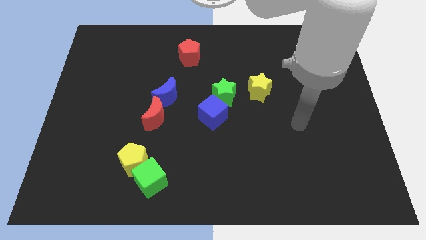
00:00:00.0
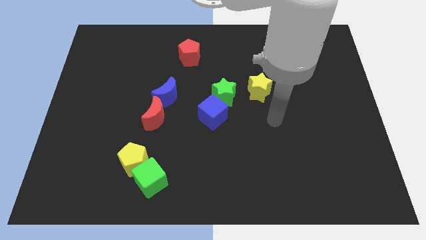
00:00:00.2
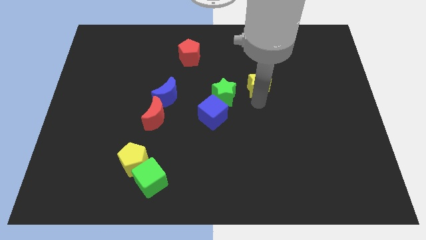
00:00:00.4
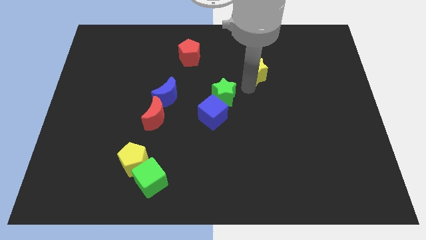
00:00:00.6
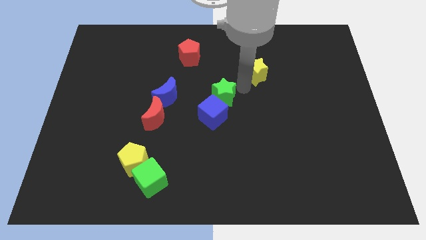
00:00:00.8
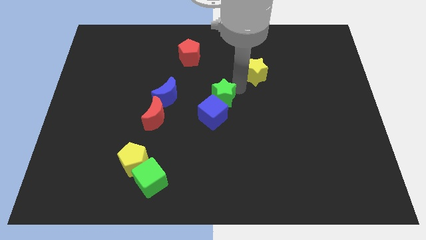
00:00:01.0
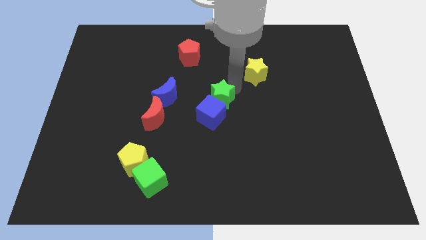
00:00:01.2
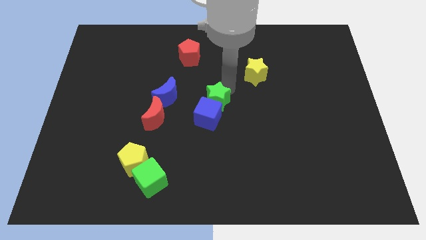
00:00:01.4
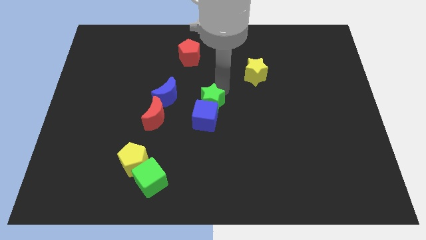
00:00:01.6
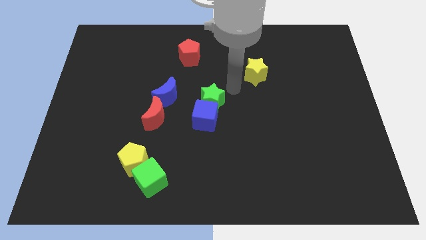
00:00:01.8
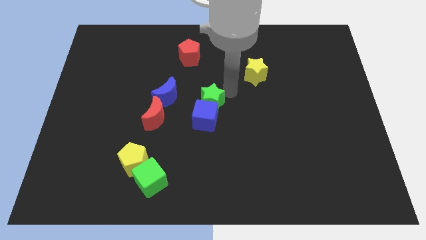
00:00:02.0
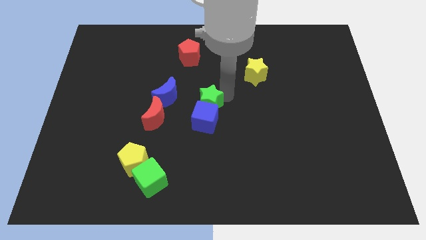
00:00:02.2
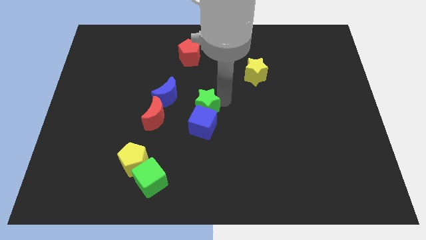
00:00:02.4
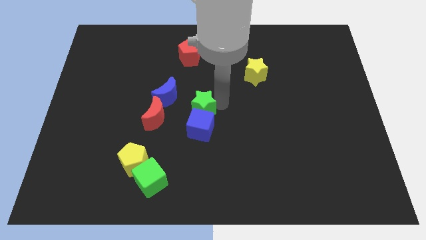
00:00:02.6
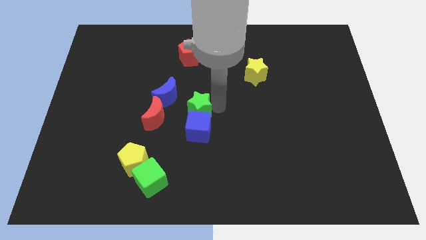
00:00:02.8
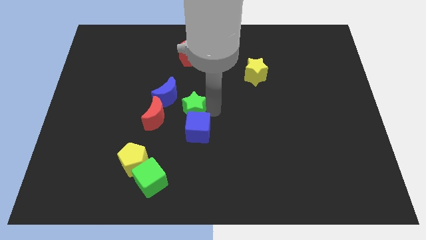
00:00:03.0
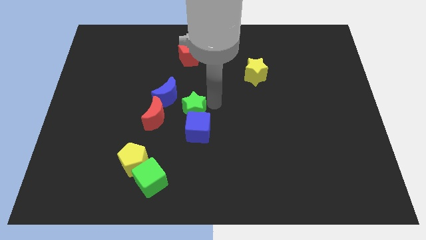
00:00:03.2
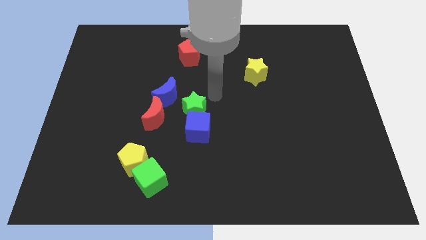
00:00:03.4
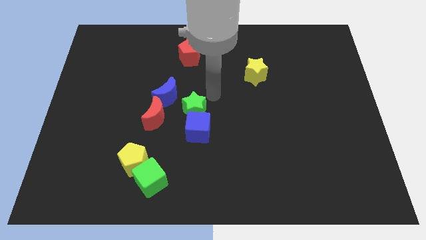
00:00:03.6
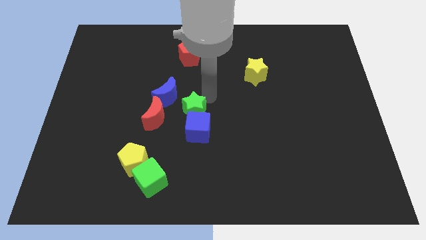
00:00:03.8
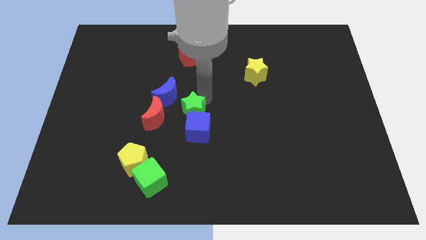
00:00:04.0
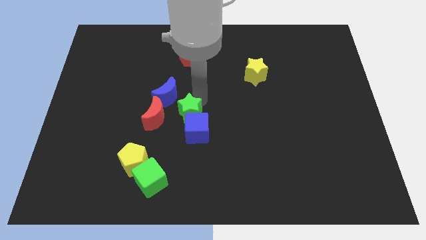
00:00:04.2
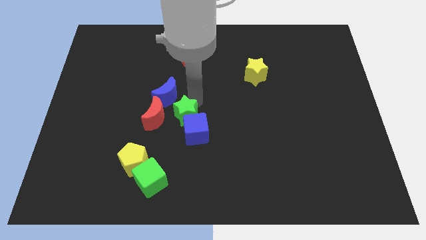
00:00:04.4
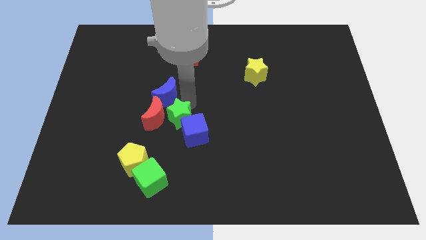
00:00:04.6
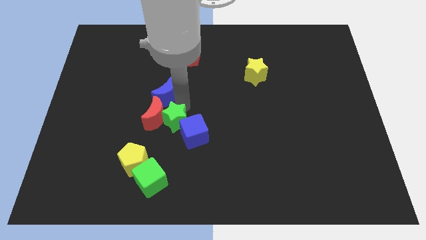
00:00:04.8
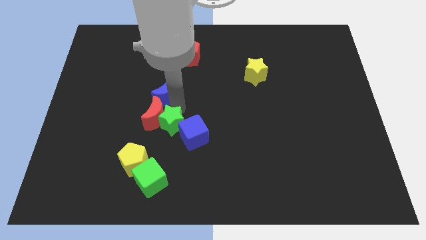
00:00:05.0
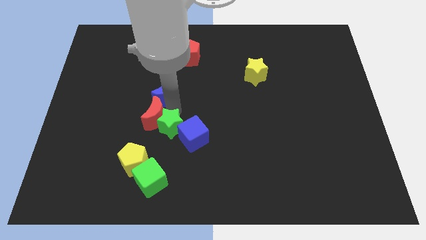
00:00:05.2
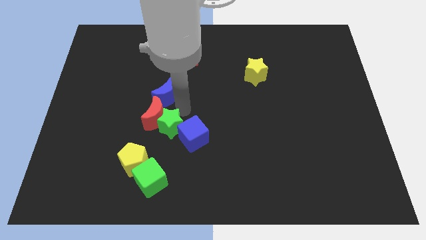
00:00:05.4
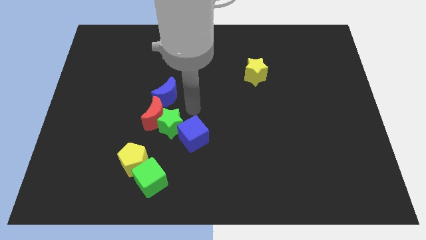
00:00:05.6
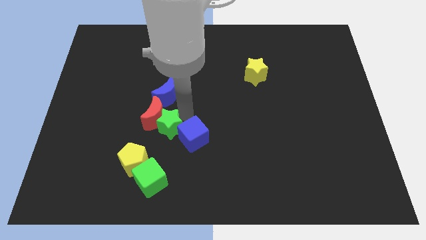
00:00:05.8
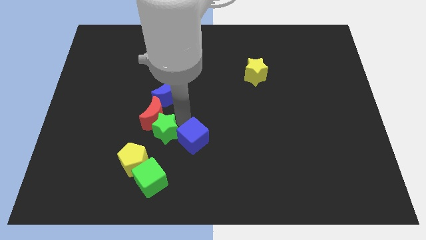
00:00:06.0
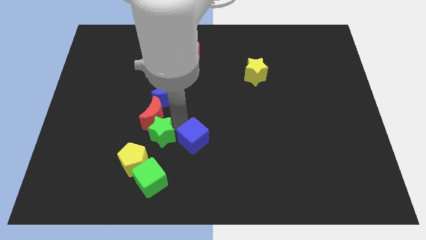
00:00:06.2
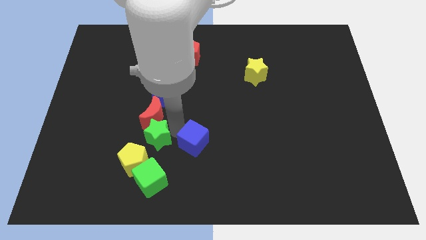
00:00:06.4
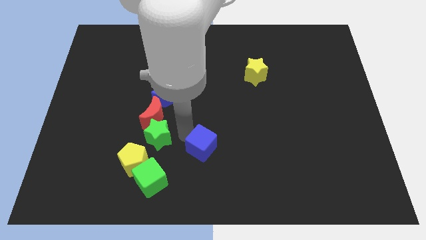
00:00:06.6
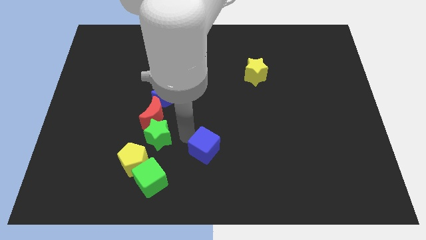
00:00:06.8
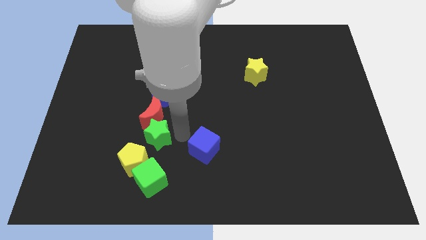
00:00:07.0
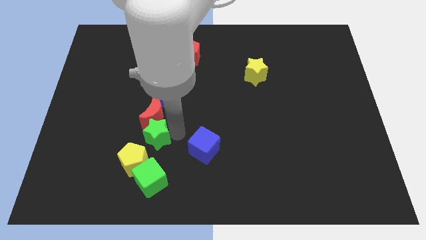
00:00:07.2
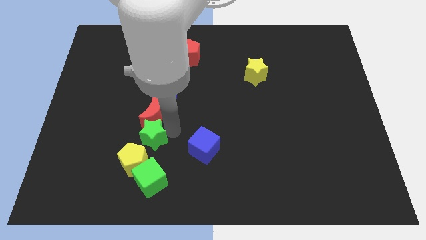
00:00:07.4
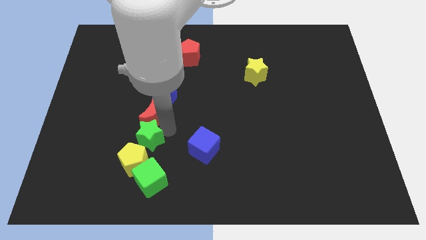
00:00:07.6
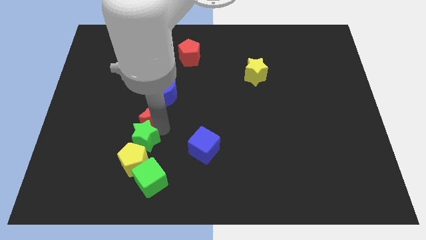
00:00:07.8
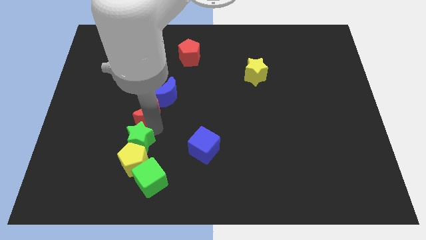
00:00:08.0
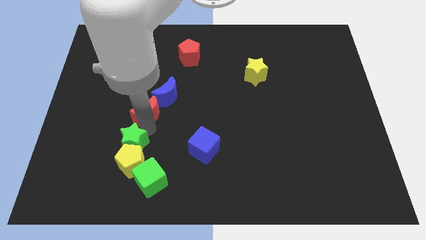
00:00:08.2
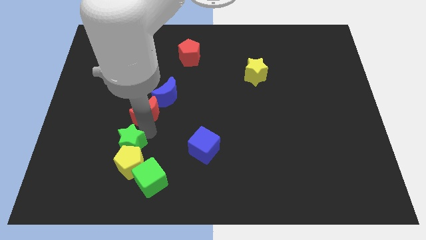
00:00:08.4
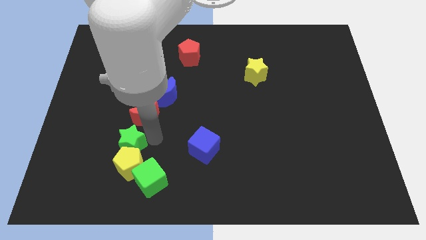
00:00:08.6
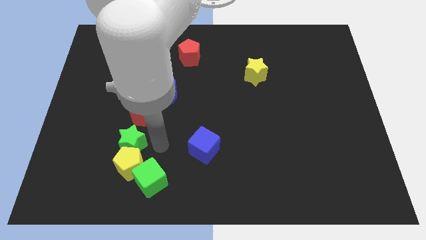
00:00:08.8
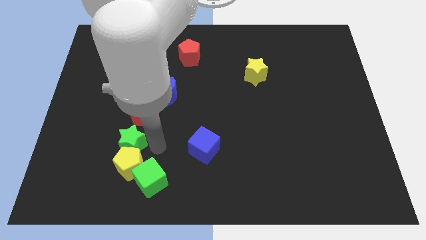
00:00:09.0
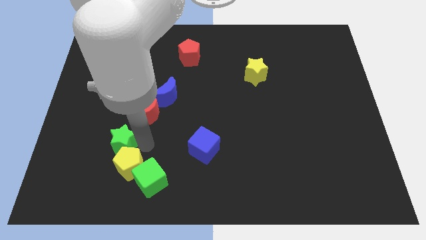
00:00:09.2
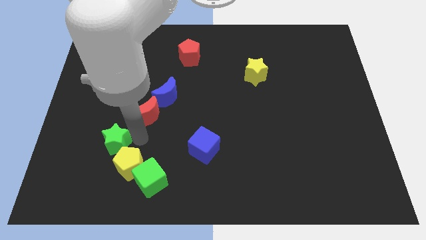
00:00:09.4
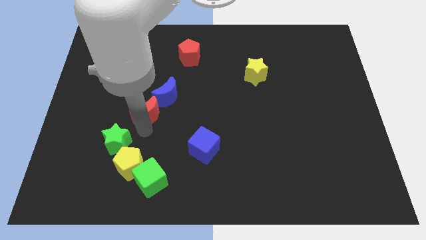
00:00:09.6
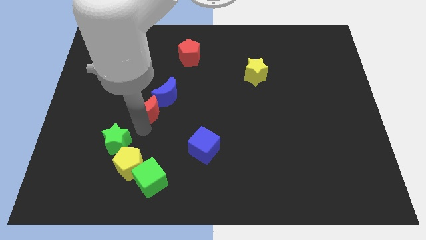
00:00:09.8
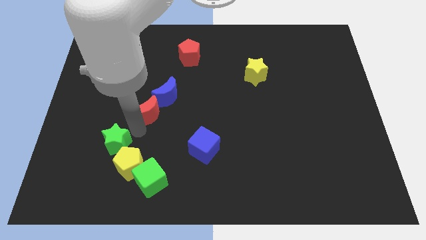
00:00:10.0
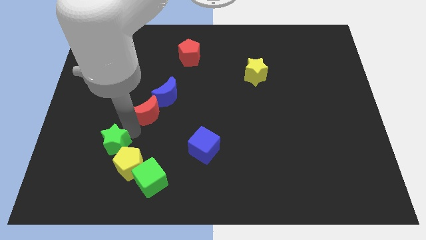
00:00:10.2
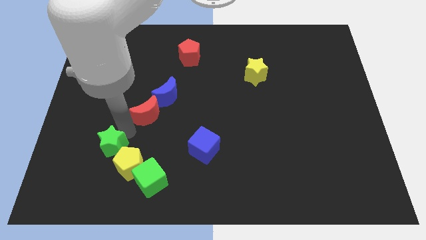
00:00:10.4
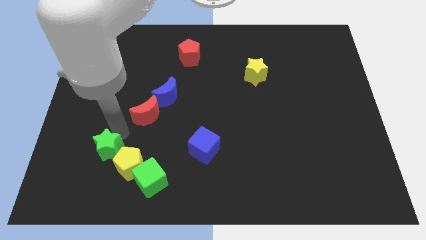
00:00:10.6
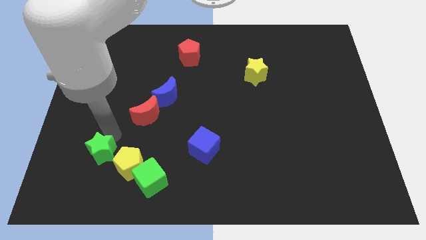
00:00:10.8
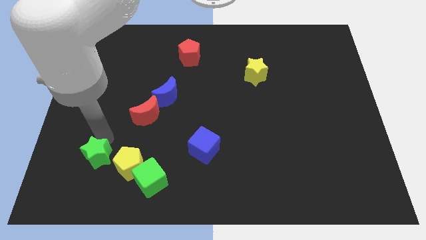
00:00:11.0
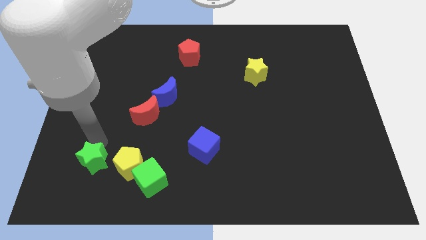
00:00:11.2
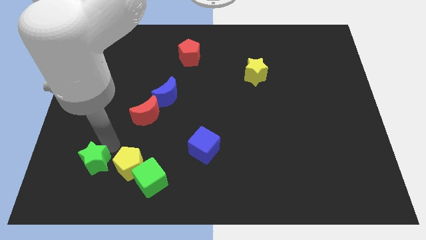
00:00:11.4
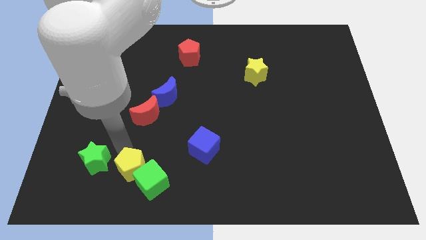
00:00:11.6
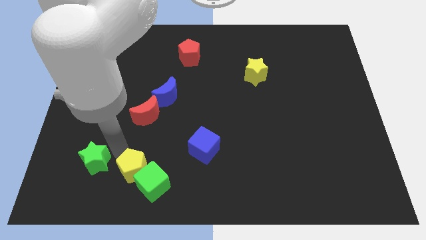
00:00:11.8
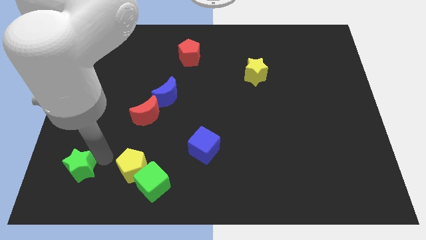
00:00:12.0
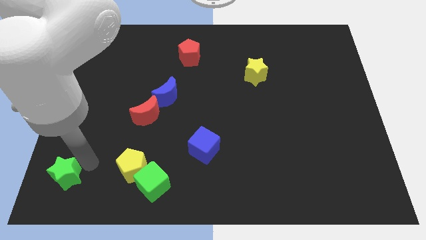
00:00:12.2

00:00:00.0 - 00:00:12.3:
slide the green star to the lower left corner

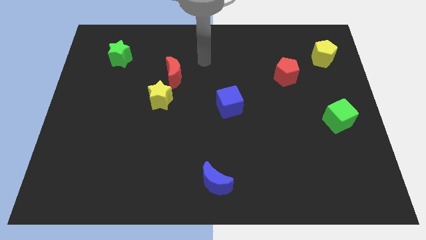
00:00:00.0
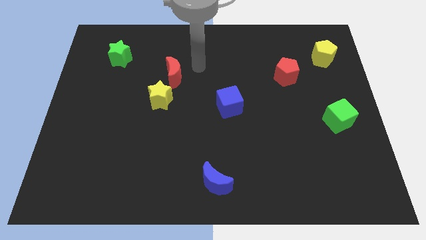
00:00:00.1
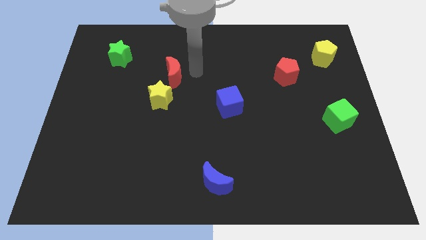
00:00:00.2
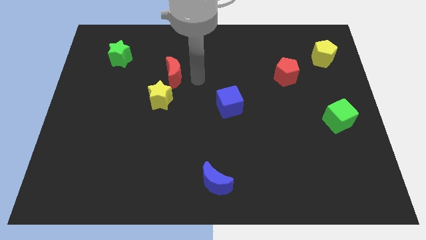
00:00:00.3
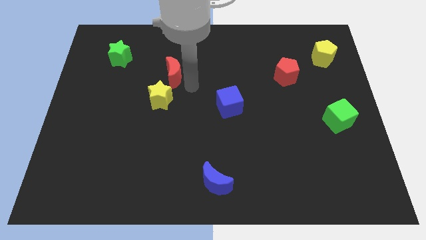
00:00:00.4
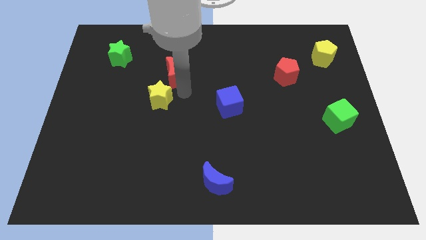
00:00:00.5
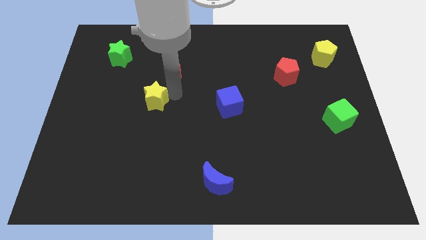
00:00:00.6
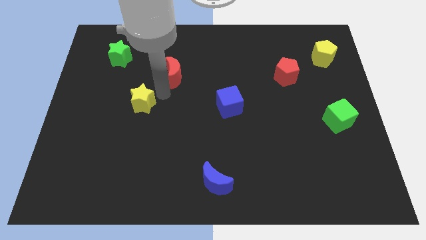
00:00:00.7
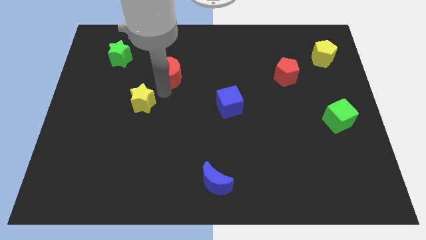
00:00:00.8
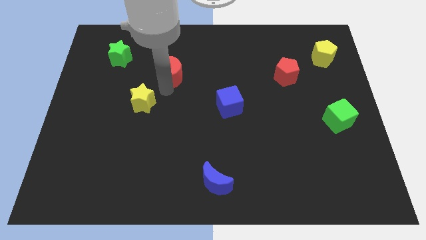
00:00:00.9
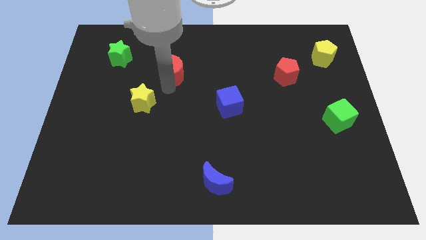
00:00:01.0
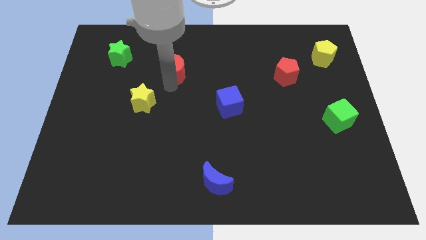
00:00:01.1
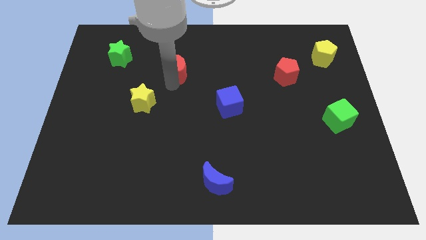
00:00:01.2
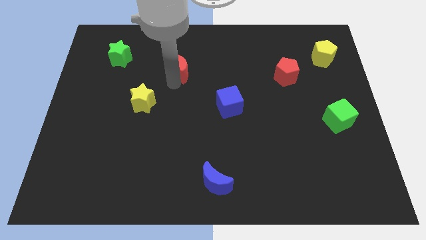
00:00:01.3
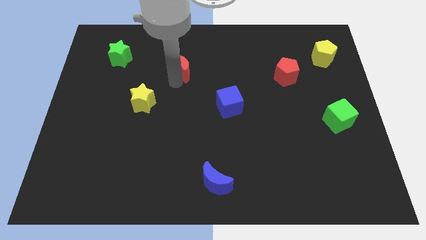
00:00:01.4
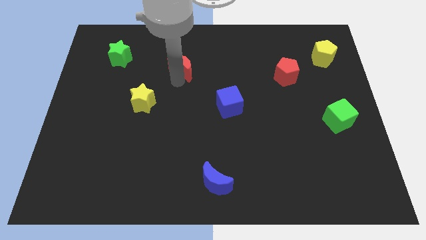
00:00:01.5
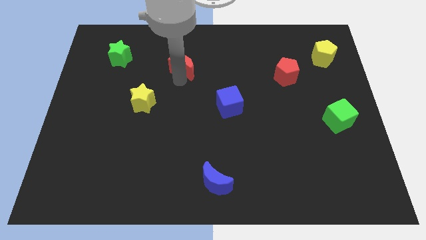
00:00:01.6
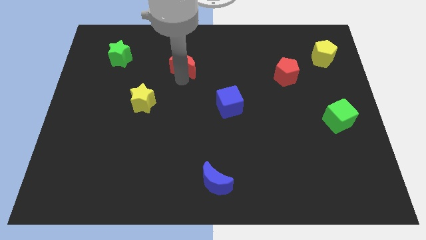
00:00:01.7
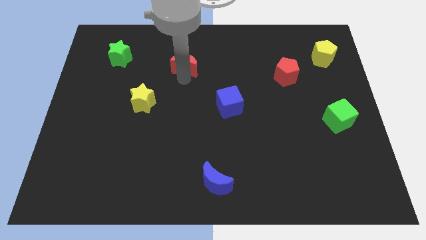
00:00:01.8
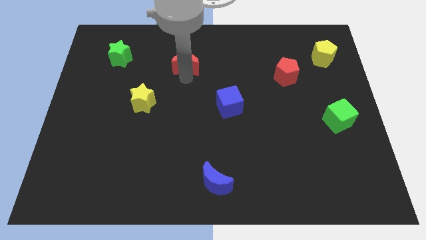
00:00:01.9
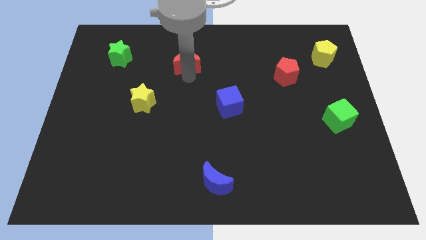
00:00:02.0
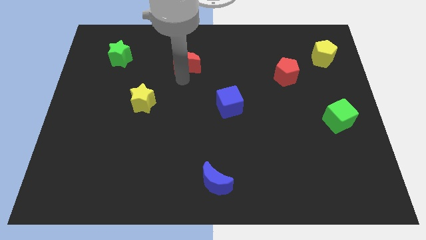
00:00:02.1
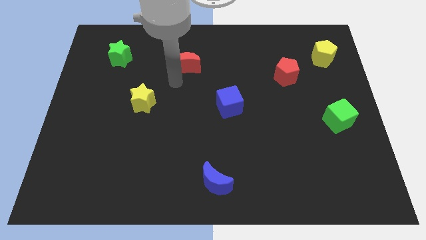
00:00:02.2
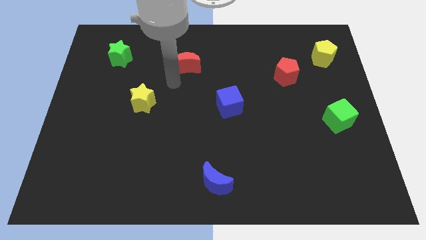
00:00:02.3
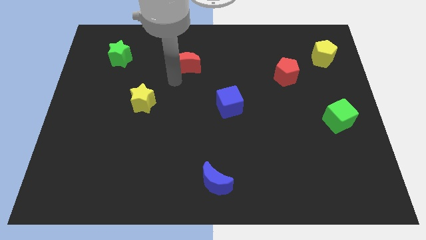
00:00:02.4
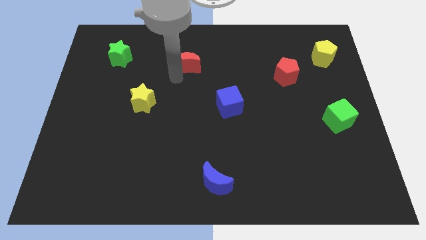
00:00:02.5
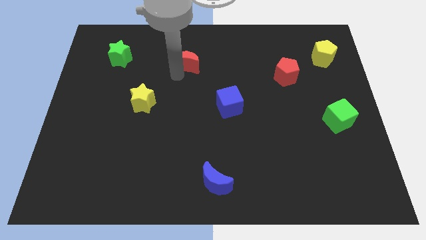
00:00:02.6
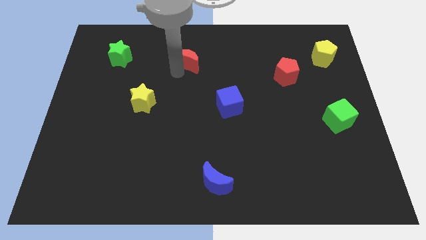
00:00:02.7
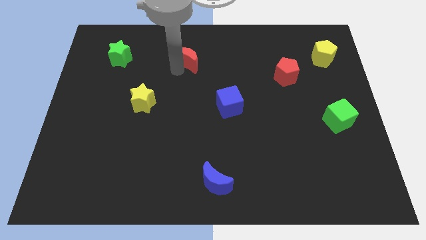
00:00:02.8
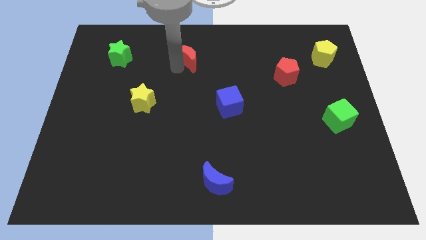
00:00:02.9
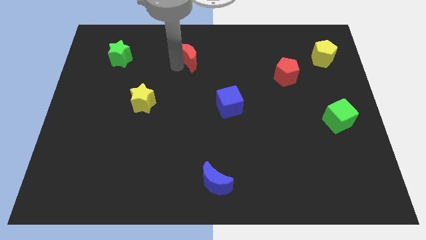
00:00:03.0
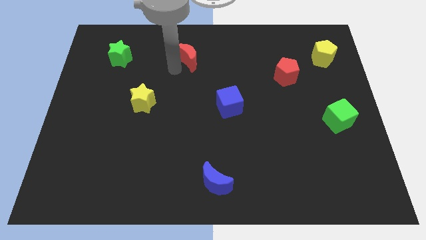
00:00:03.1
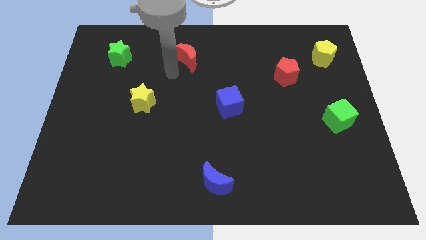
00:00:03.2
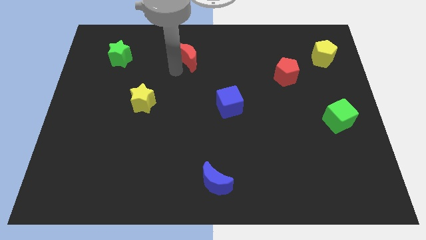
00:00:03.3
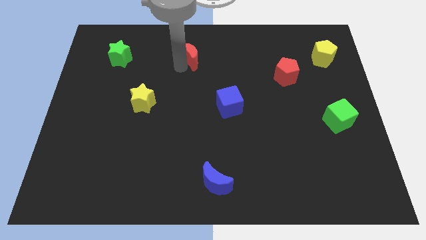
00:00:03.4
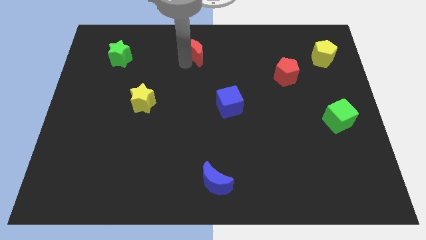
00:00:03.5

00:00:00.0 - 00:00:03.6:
push the red moon to the top side
